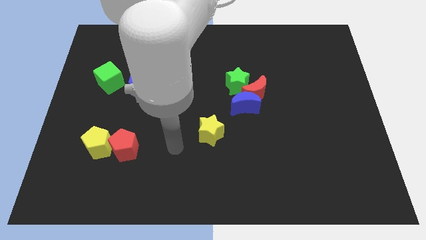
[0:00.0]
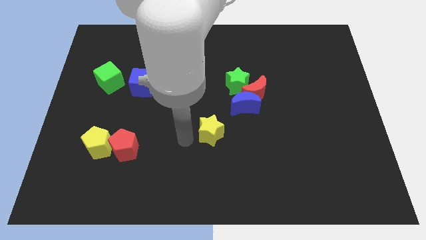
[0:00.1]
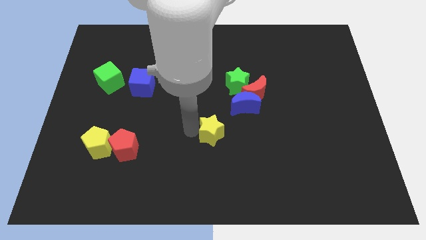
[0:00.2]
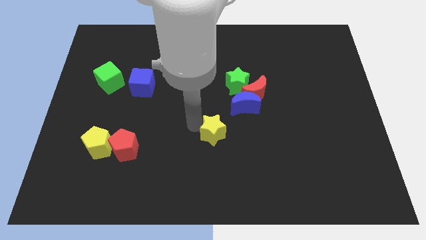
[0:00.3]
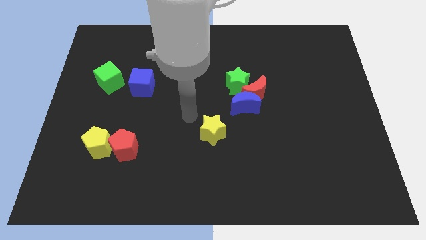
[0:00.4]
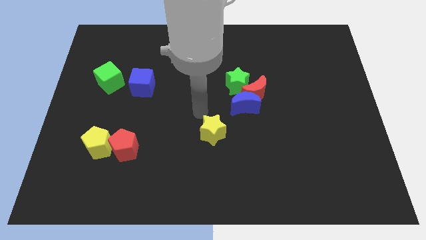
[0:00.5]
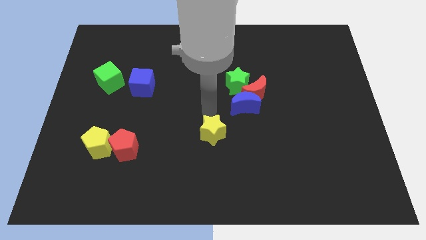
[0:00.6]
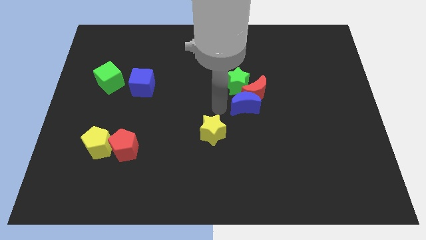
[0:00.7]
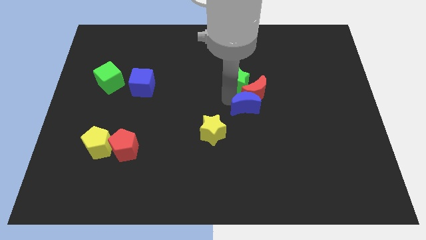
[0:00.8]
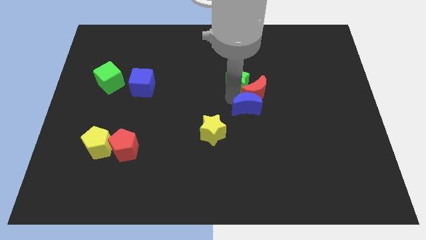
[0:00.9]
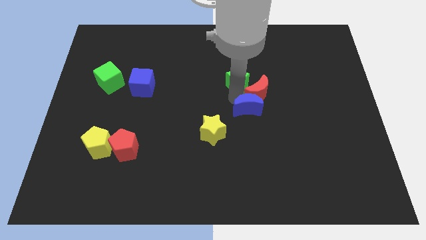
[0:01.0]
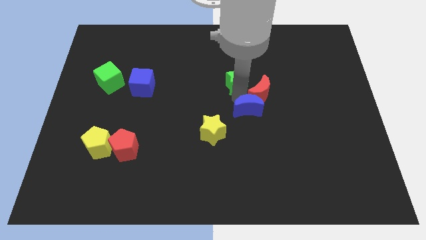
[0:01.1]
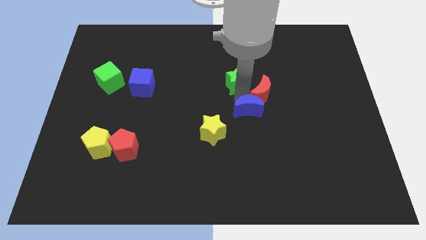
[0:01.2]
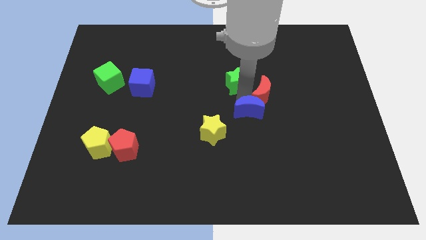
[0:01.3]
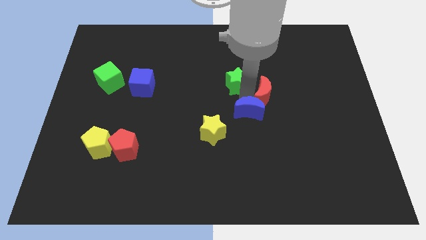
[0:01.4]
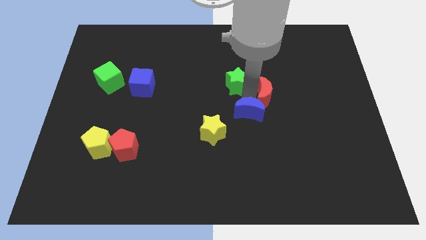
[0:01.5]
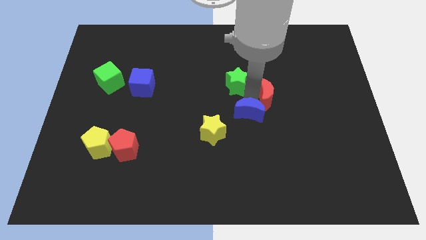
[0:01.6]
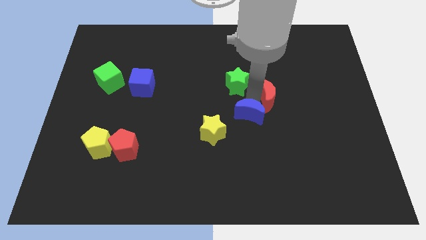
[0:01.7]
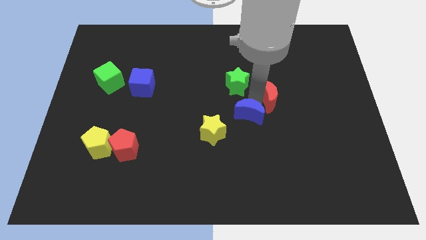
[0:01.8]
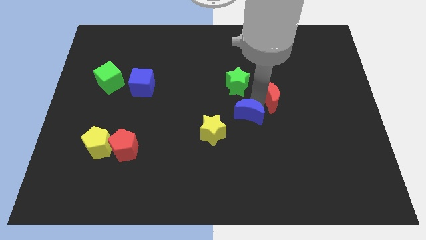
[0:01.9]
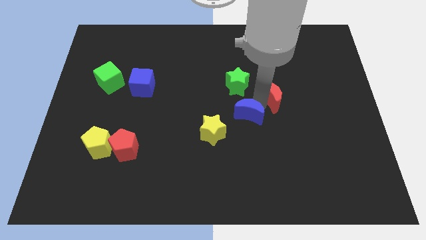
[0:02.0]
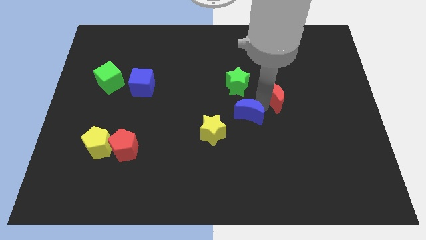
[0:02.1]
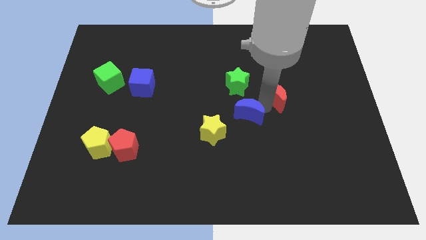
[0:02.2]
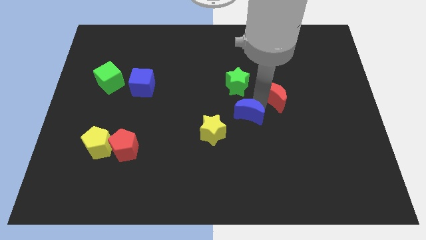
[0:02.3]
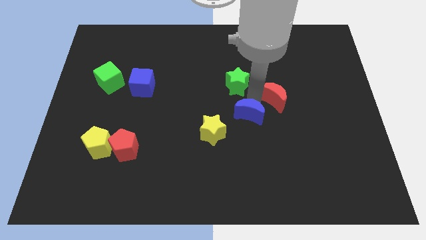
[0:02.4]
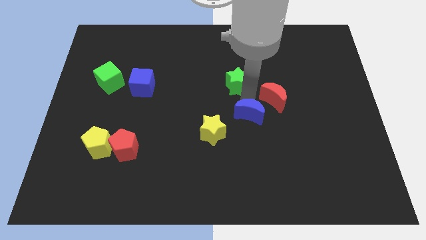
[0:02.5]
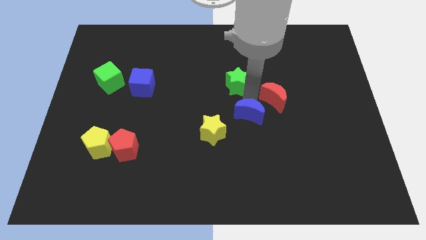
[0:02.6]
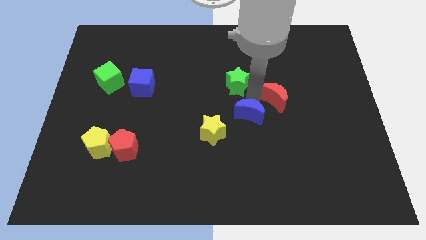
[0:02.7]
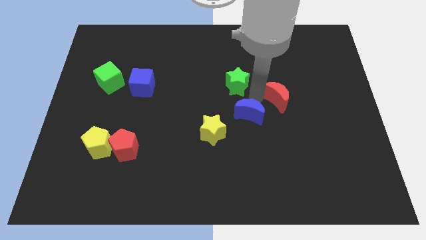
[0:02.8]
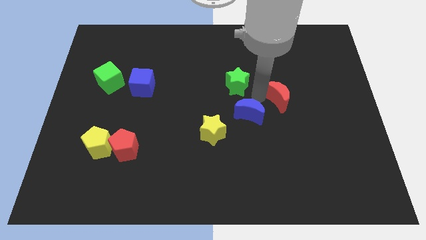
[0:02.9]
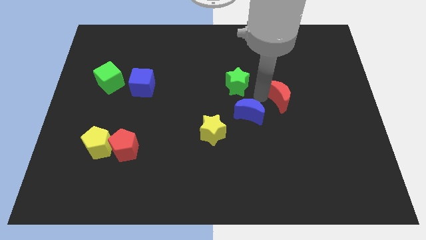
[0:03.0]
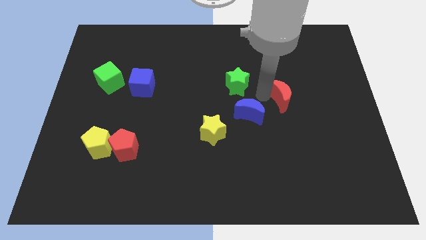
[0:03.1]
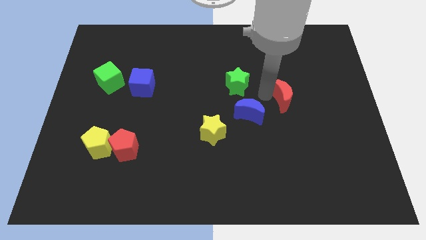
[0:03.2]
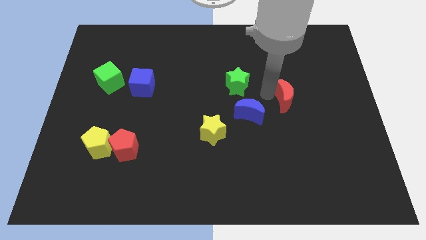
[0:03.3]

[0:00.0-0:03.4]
pull the red moon apart from the blue moon and green star

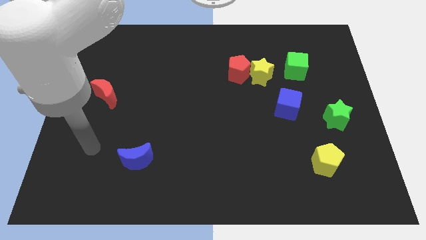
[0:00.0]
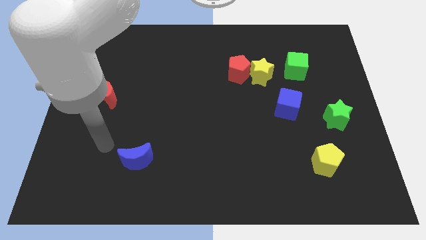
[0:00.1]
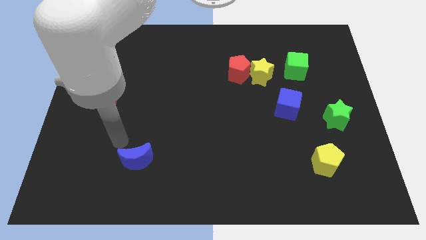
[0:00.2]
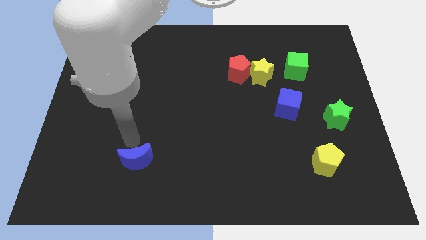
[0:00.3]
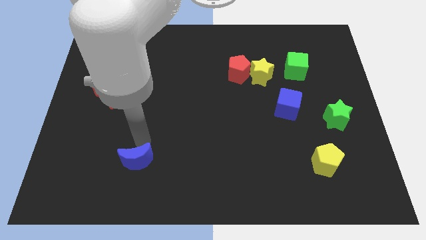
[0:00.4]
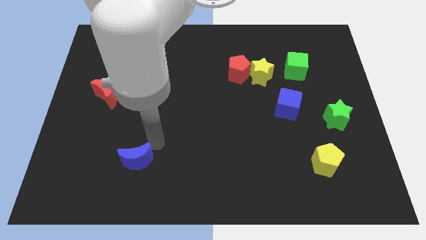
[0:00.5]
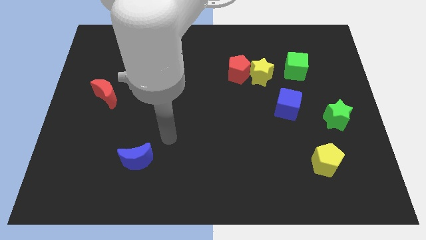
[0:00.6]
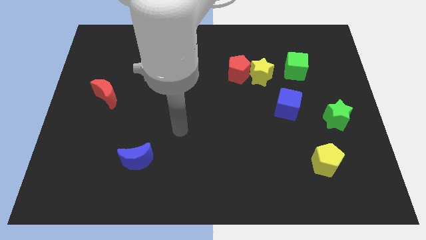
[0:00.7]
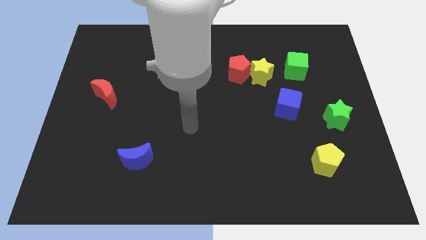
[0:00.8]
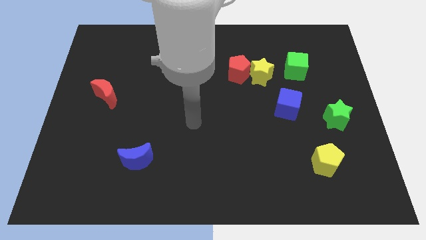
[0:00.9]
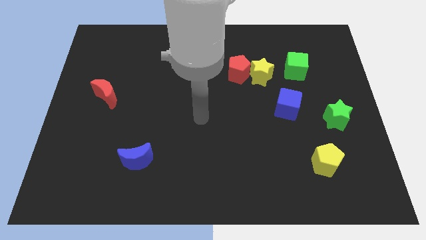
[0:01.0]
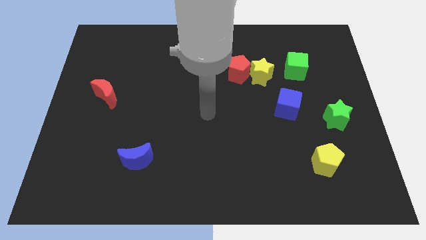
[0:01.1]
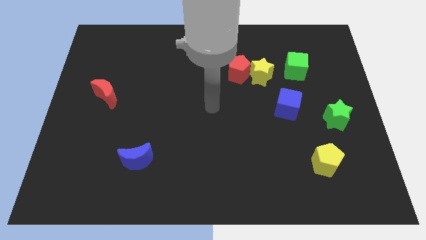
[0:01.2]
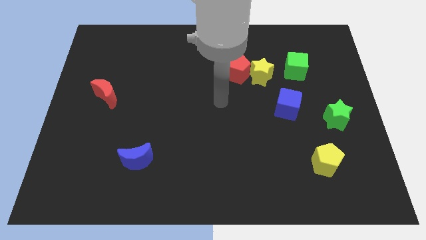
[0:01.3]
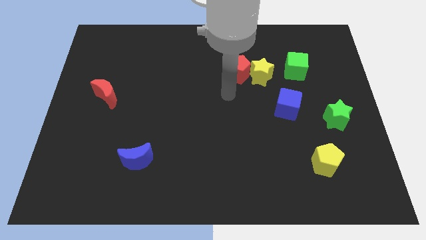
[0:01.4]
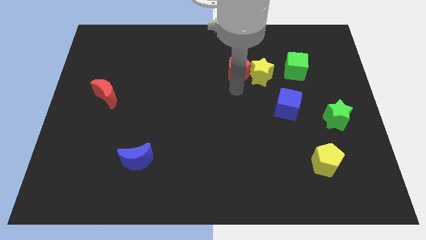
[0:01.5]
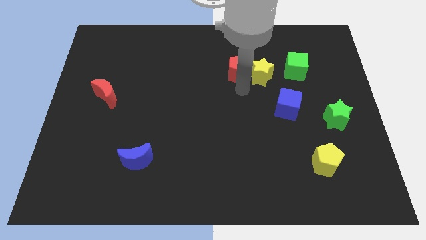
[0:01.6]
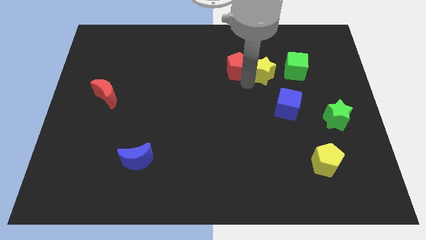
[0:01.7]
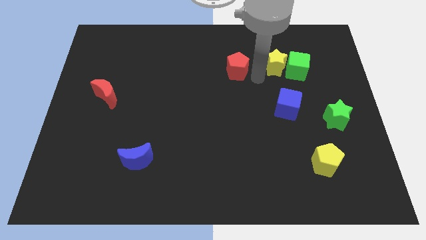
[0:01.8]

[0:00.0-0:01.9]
separate the red pentagon from the yellow star

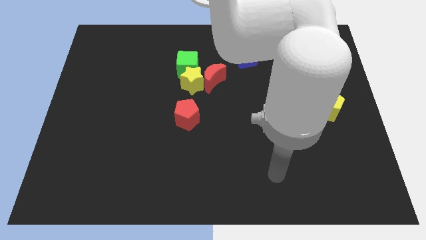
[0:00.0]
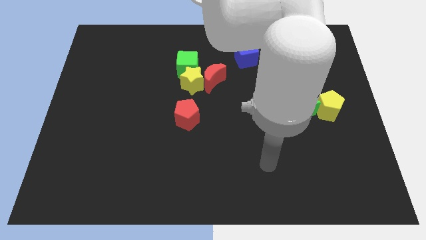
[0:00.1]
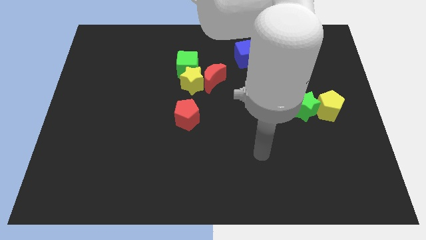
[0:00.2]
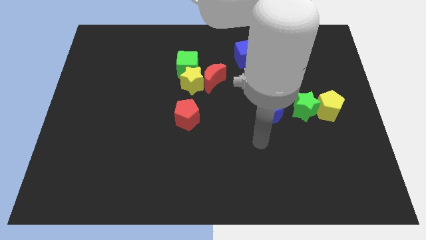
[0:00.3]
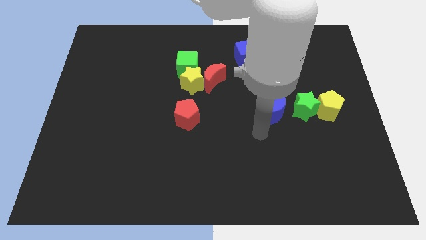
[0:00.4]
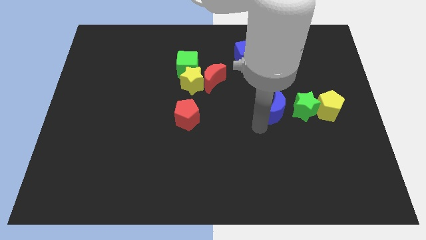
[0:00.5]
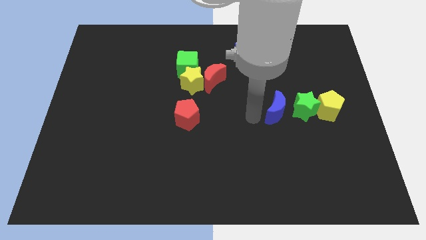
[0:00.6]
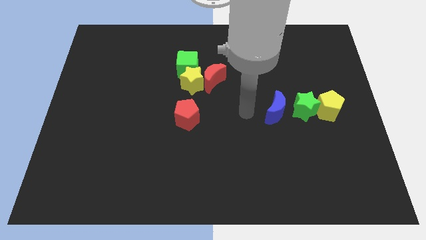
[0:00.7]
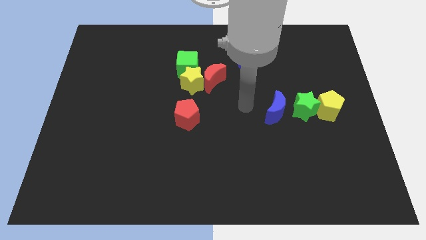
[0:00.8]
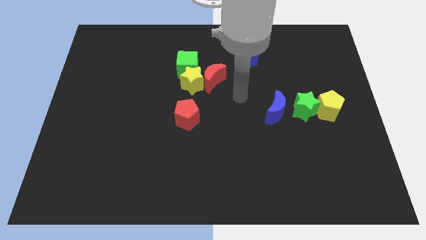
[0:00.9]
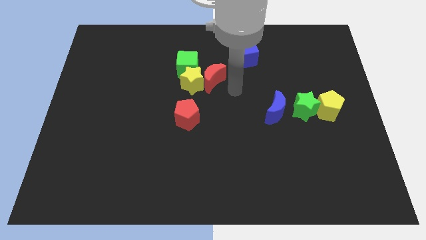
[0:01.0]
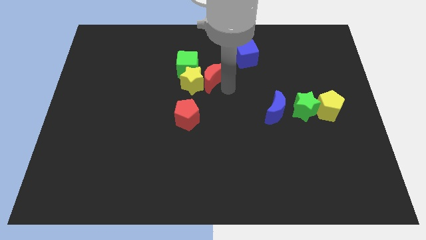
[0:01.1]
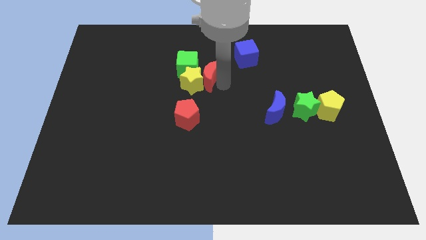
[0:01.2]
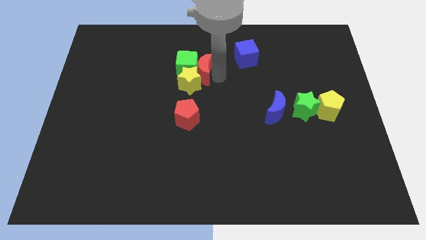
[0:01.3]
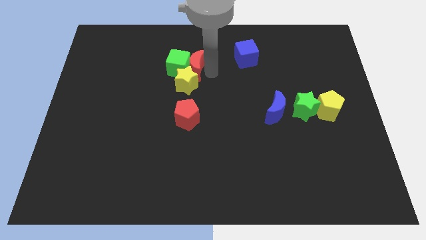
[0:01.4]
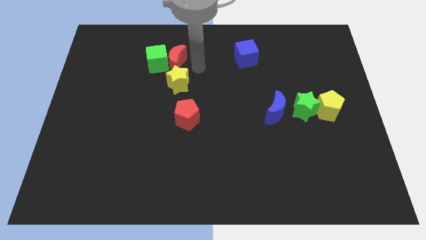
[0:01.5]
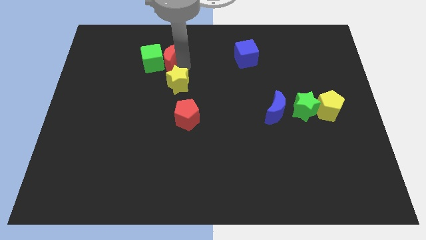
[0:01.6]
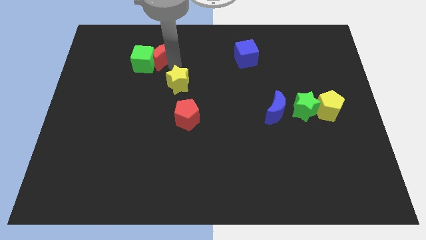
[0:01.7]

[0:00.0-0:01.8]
move the yellow star away from the red moon and green cube

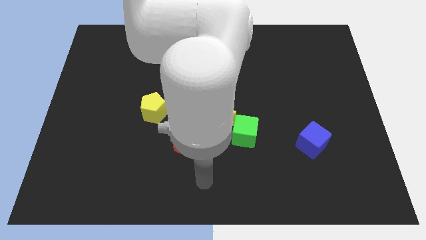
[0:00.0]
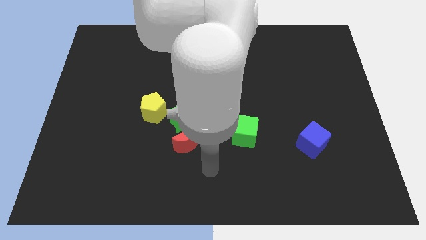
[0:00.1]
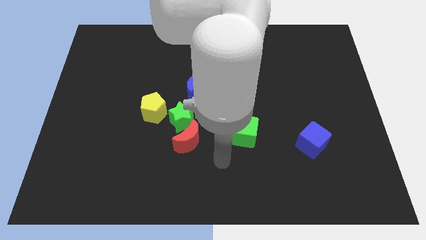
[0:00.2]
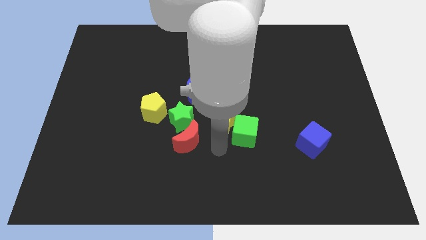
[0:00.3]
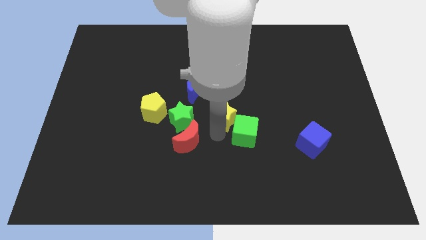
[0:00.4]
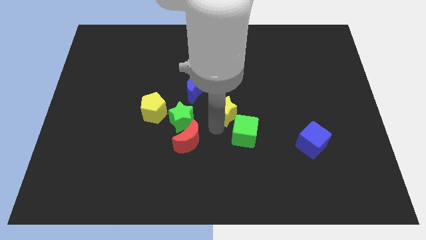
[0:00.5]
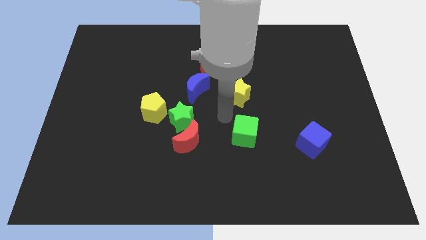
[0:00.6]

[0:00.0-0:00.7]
separate the green cube from the yellow star

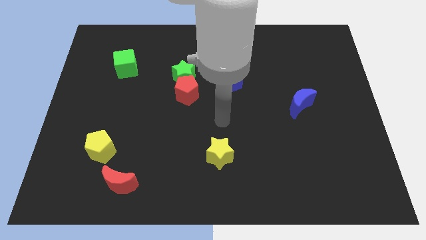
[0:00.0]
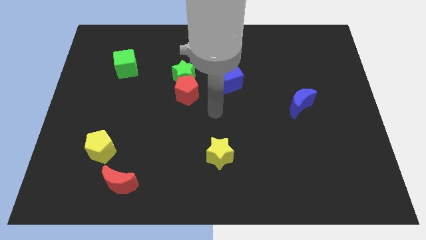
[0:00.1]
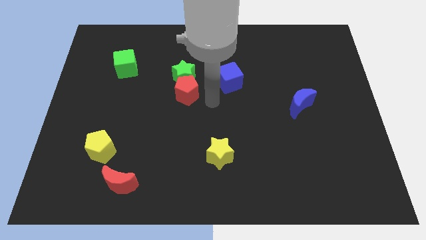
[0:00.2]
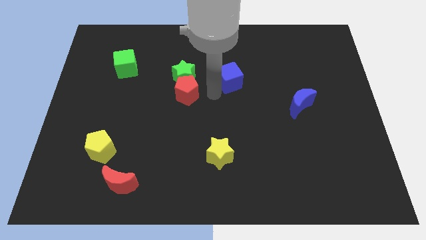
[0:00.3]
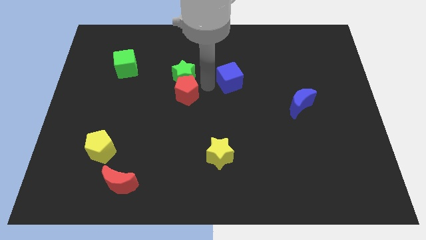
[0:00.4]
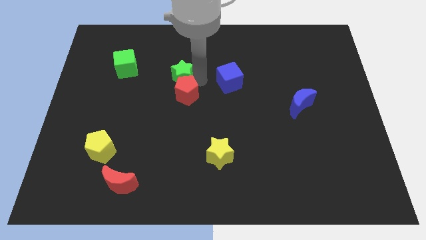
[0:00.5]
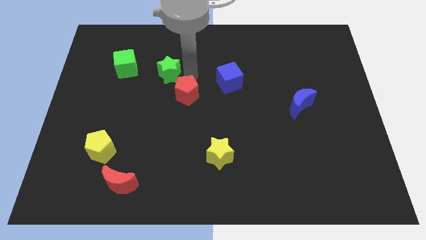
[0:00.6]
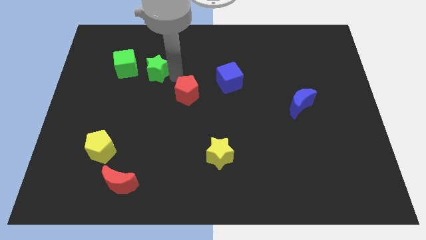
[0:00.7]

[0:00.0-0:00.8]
move the red pentagon away from the green star

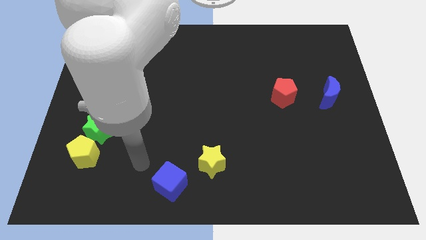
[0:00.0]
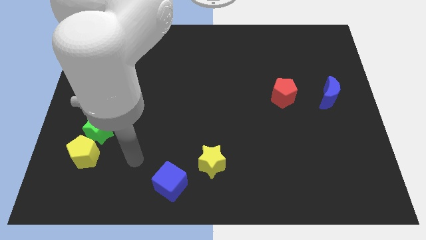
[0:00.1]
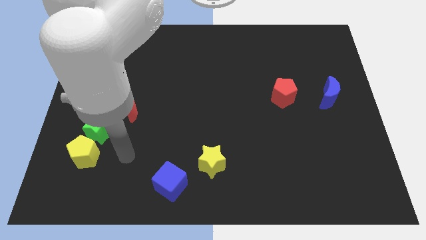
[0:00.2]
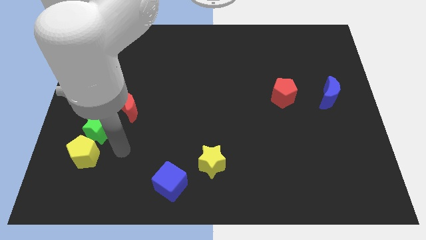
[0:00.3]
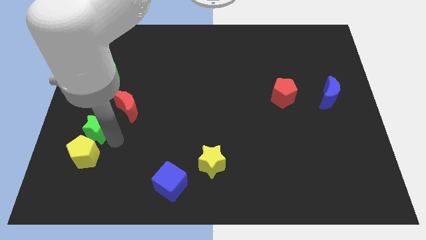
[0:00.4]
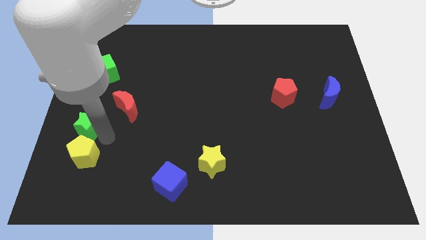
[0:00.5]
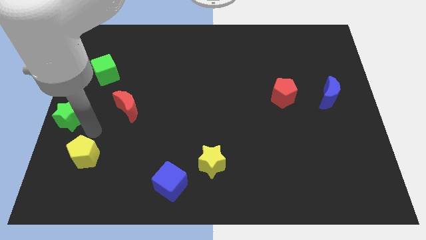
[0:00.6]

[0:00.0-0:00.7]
pull the yellow pentagon apart from the green star
